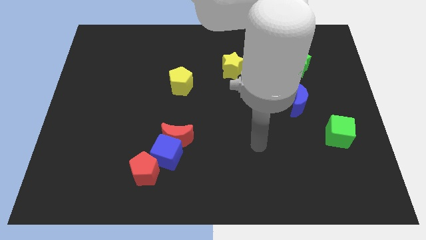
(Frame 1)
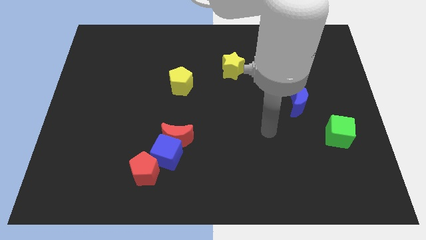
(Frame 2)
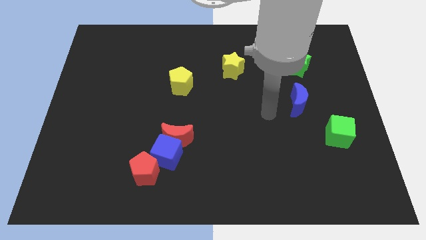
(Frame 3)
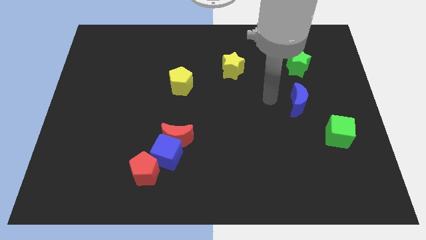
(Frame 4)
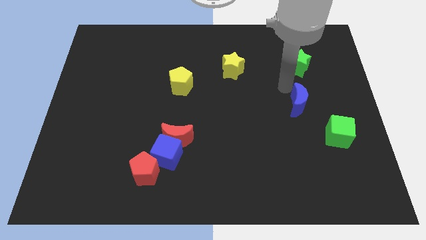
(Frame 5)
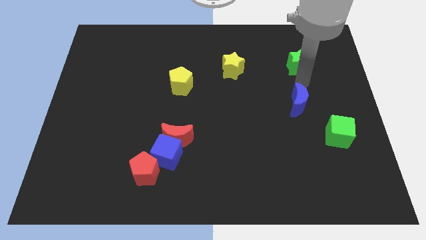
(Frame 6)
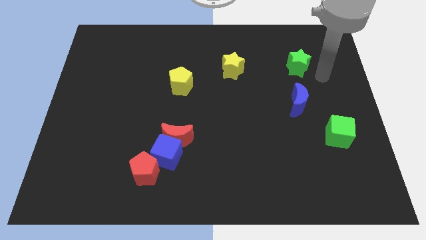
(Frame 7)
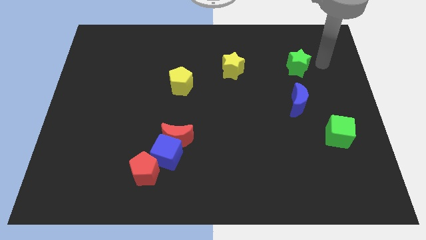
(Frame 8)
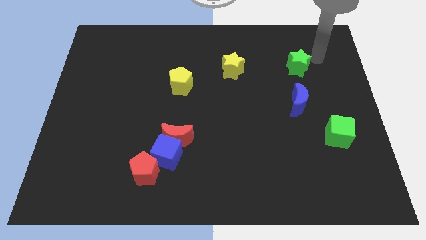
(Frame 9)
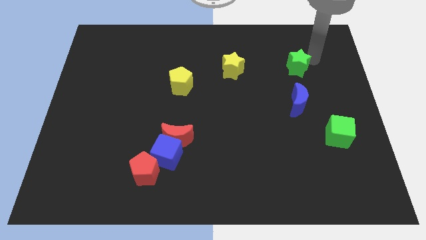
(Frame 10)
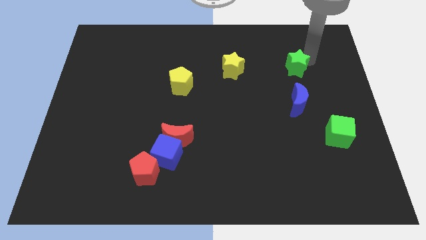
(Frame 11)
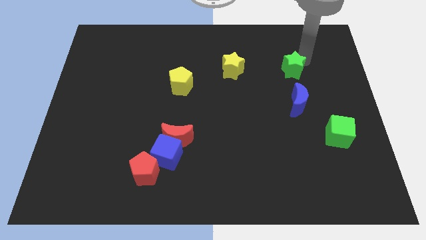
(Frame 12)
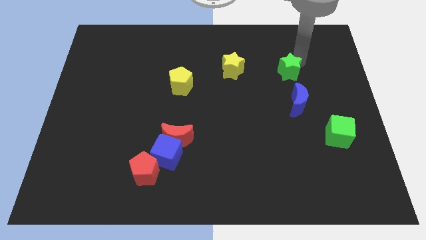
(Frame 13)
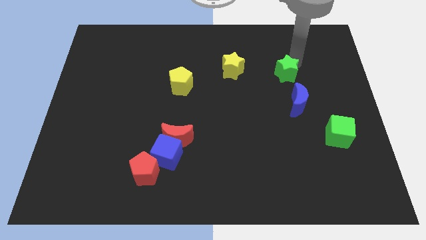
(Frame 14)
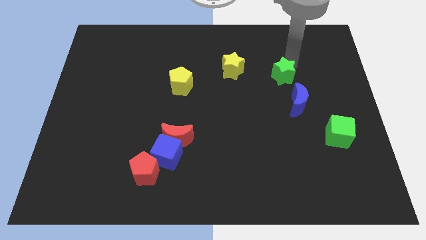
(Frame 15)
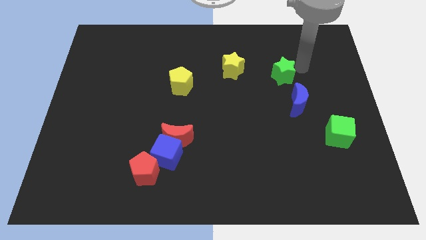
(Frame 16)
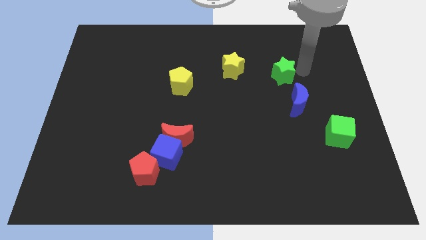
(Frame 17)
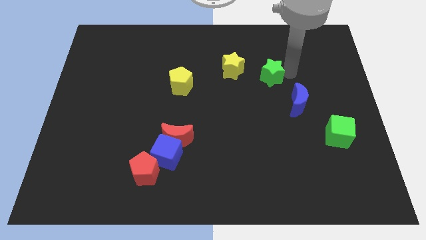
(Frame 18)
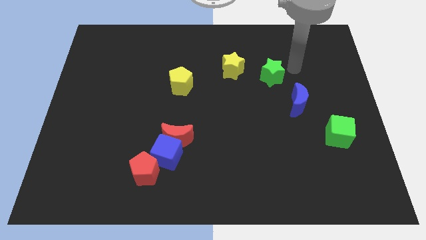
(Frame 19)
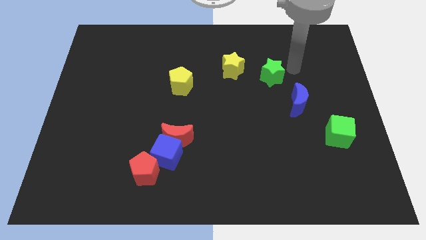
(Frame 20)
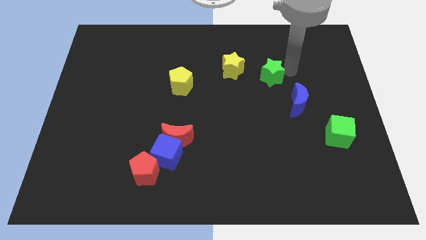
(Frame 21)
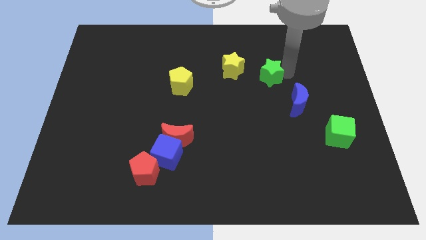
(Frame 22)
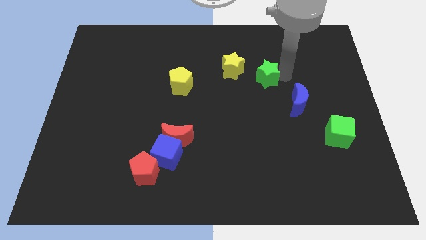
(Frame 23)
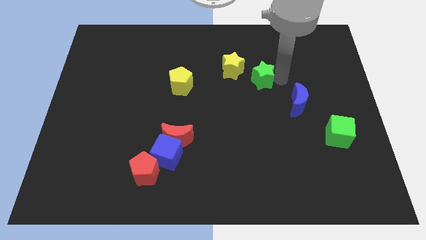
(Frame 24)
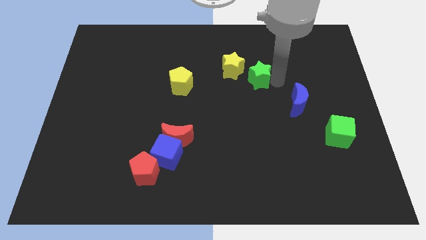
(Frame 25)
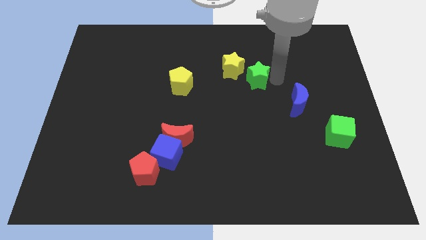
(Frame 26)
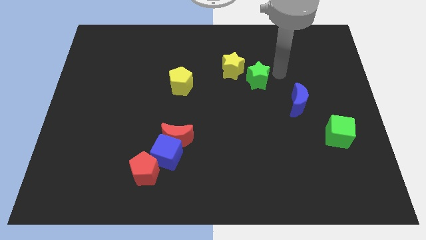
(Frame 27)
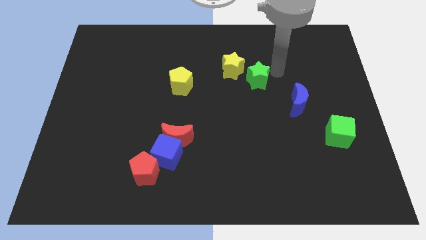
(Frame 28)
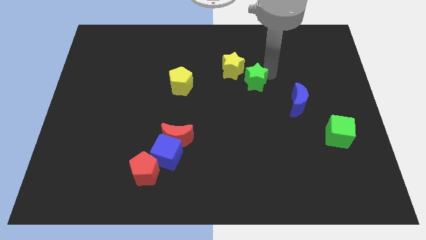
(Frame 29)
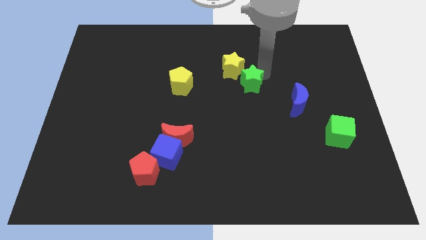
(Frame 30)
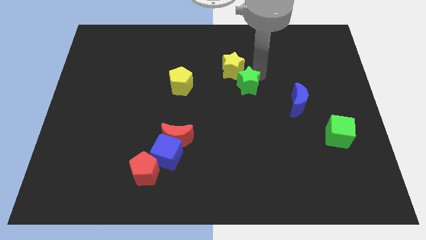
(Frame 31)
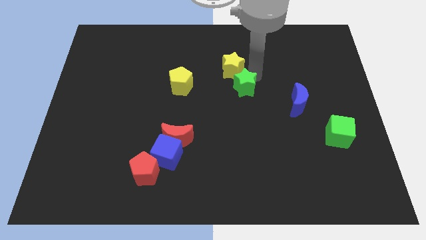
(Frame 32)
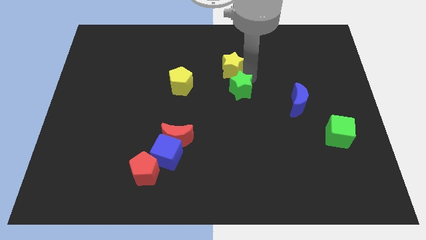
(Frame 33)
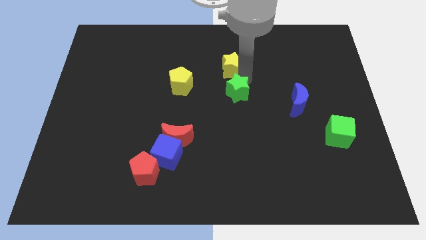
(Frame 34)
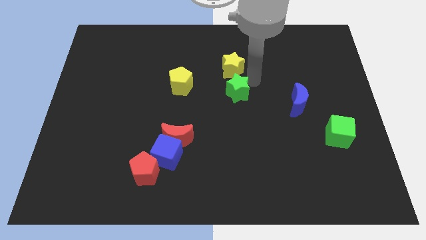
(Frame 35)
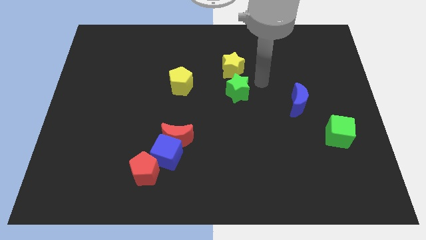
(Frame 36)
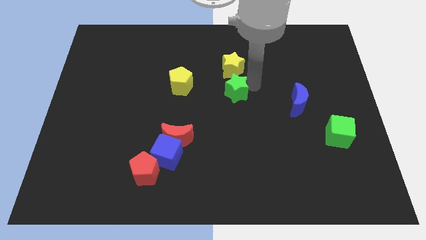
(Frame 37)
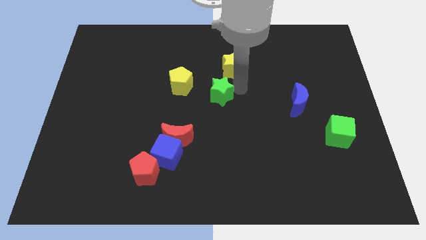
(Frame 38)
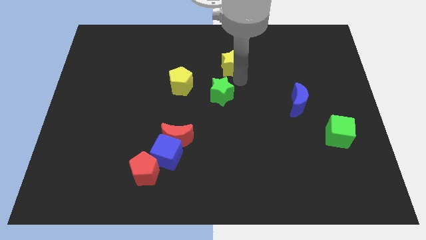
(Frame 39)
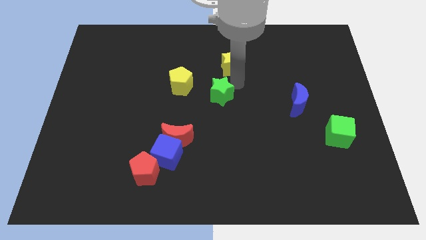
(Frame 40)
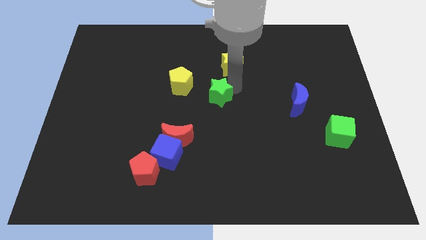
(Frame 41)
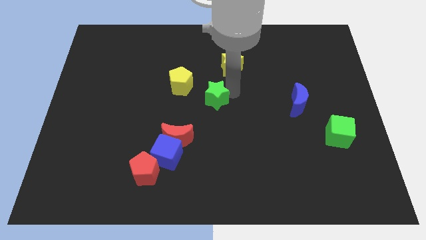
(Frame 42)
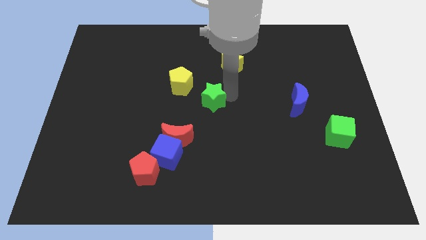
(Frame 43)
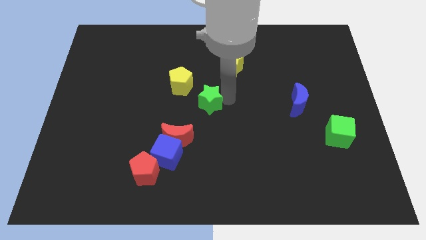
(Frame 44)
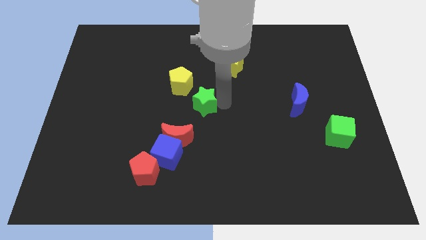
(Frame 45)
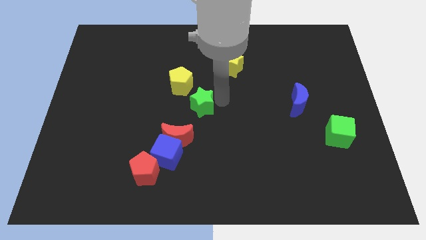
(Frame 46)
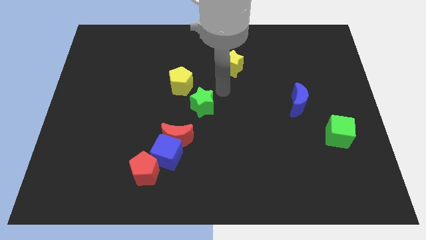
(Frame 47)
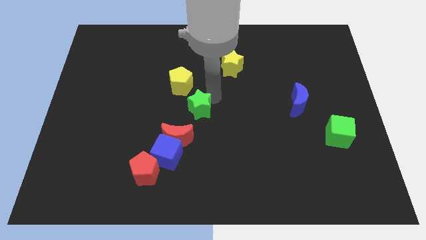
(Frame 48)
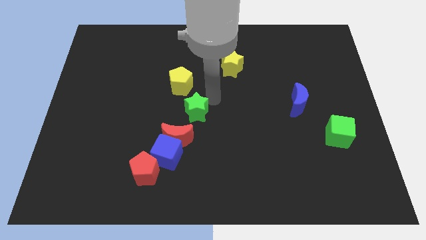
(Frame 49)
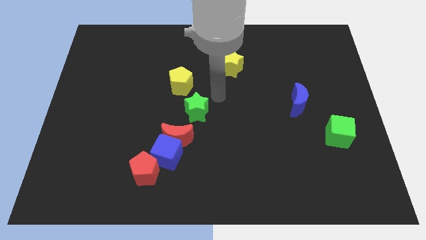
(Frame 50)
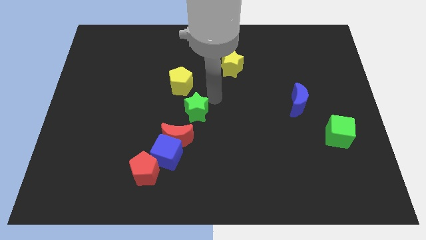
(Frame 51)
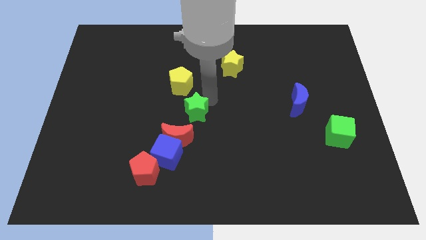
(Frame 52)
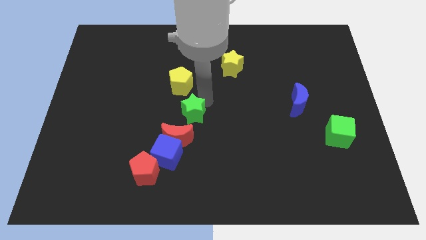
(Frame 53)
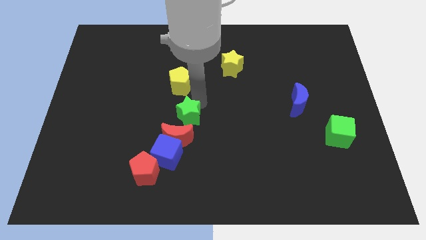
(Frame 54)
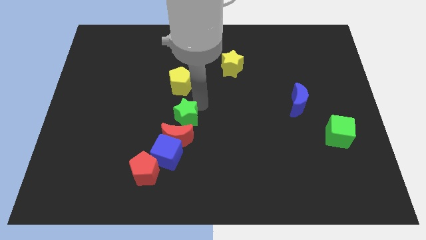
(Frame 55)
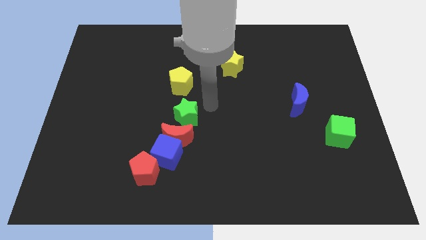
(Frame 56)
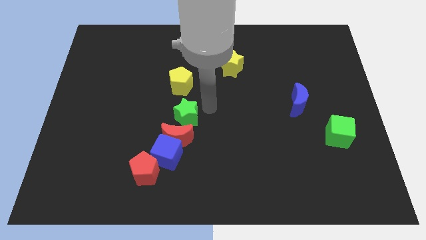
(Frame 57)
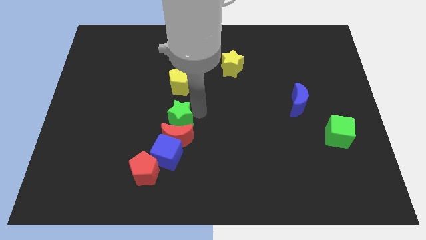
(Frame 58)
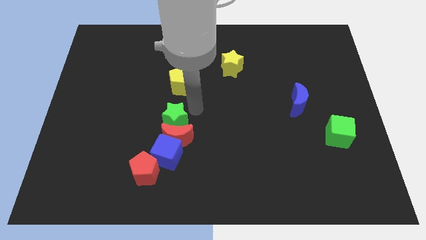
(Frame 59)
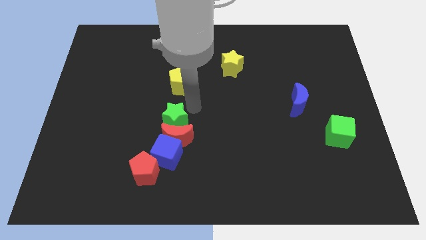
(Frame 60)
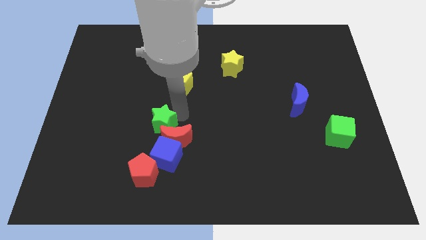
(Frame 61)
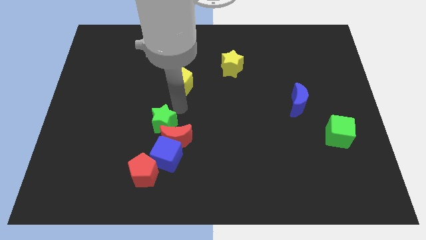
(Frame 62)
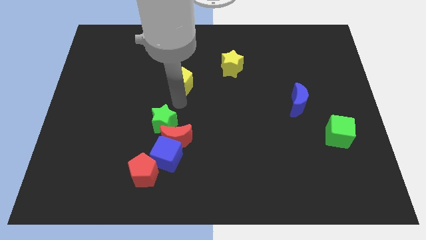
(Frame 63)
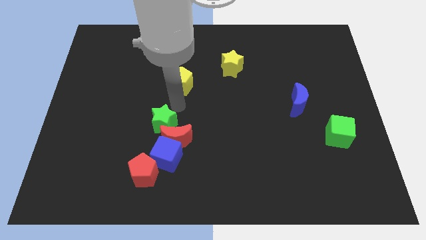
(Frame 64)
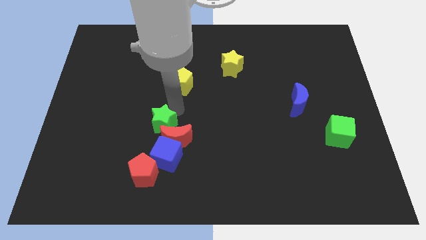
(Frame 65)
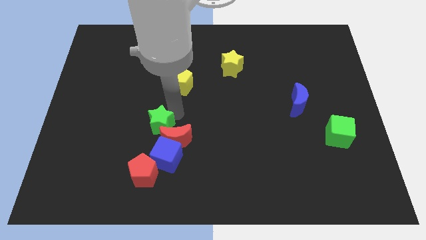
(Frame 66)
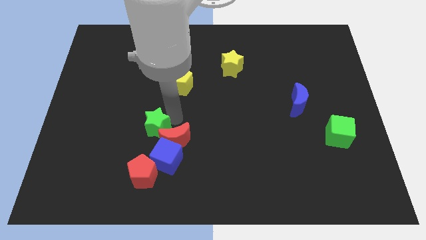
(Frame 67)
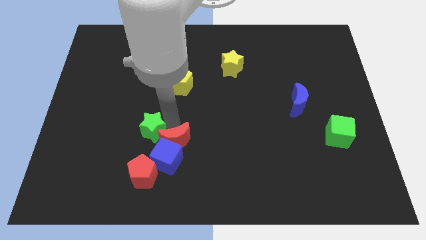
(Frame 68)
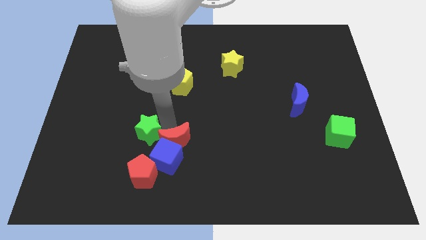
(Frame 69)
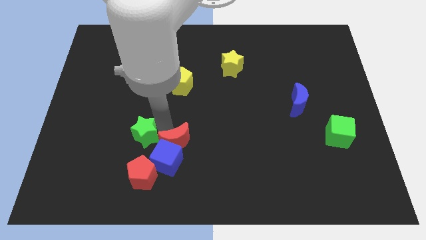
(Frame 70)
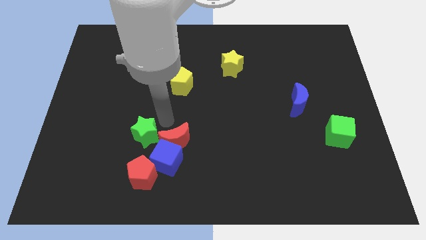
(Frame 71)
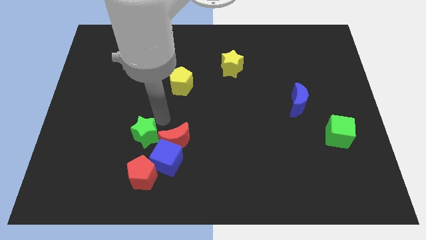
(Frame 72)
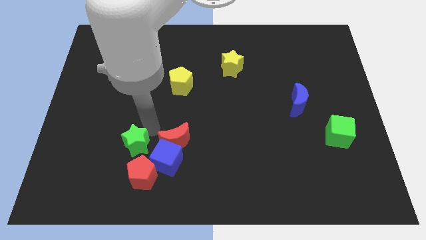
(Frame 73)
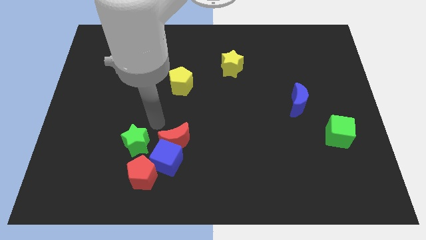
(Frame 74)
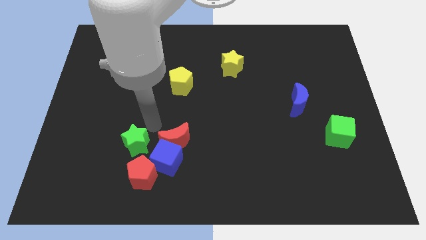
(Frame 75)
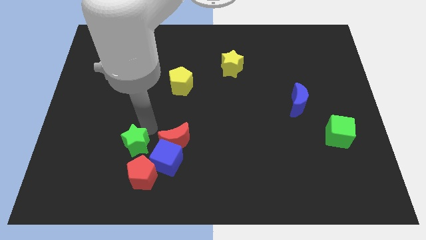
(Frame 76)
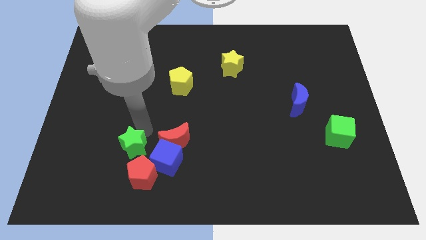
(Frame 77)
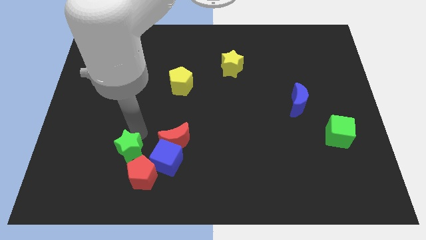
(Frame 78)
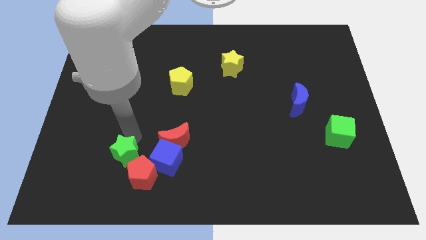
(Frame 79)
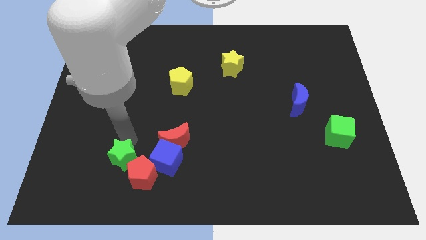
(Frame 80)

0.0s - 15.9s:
slide the green star just left of the red pentagon
